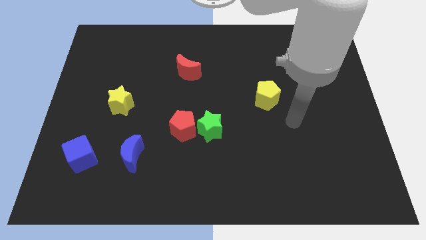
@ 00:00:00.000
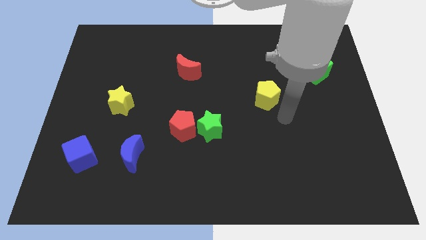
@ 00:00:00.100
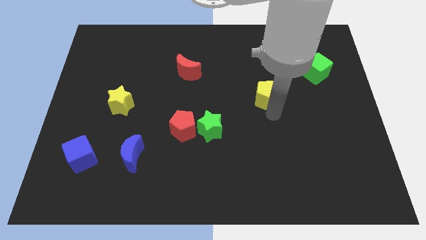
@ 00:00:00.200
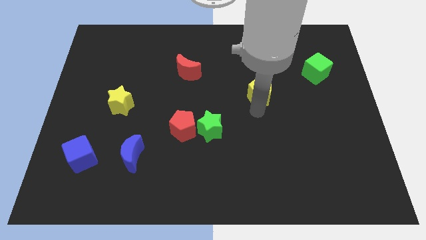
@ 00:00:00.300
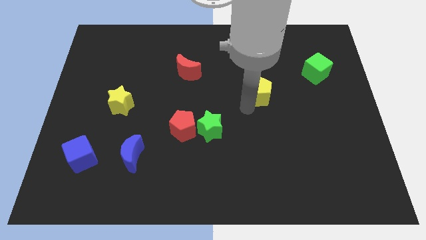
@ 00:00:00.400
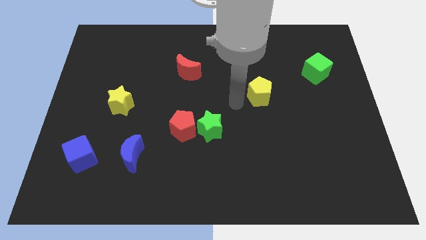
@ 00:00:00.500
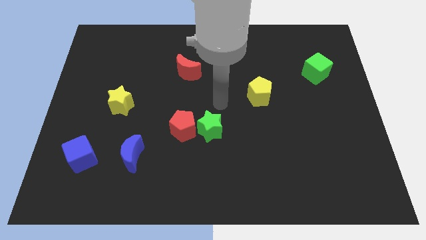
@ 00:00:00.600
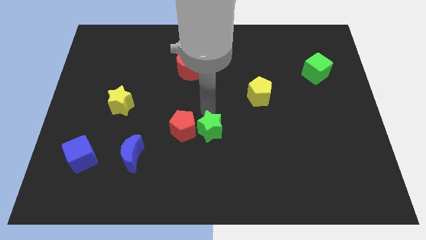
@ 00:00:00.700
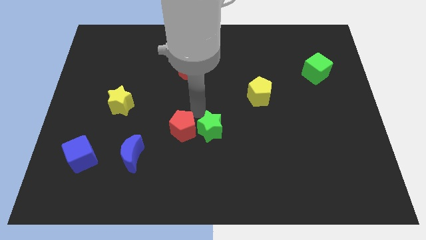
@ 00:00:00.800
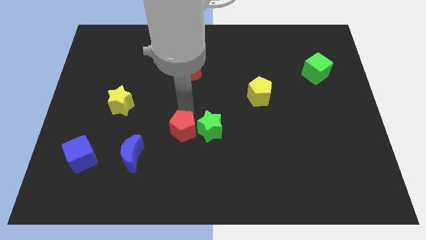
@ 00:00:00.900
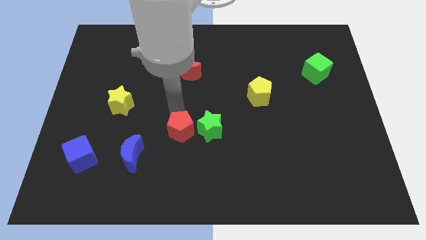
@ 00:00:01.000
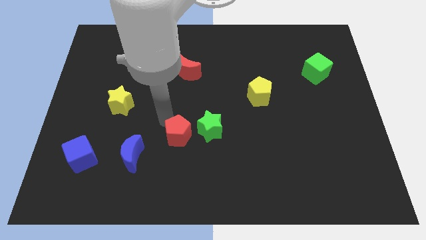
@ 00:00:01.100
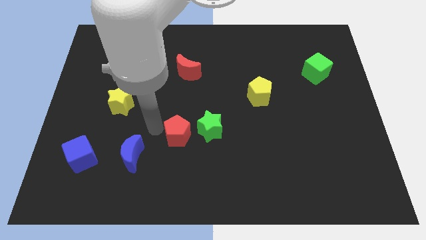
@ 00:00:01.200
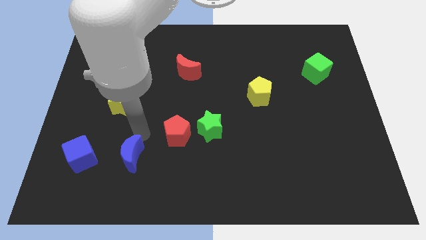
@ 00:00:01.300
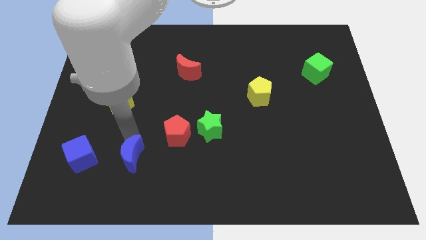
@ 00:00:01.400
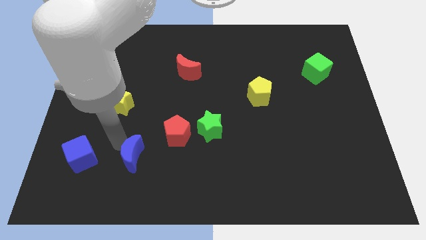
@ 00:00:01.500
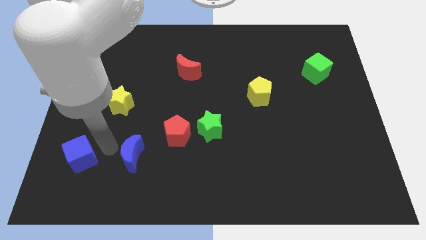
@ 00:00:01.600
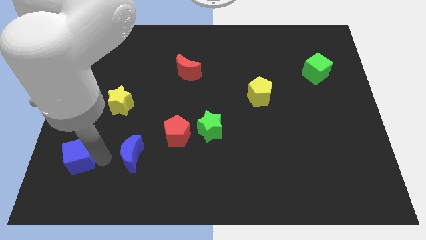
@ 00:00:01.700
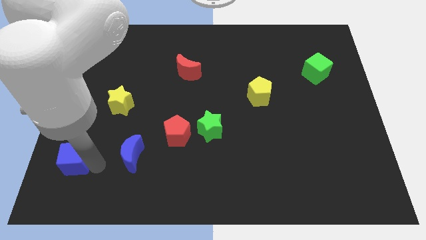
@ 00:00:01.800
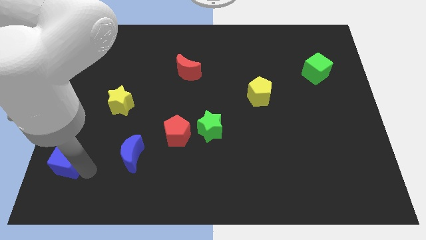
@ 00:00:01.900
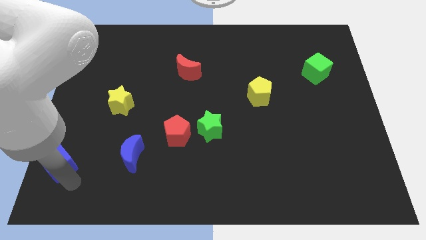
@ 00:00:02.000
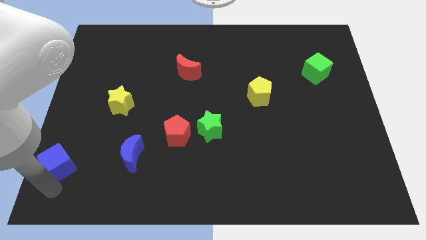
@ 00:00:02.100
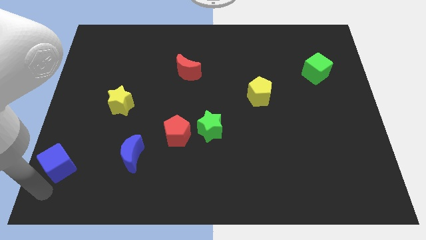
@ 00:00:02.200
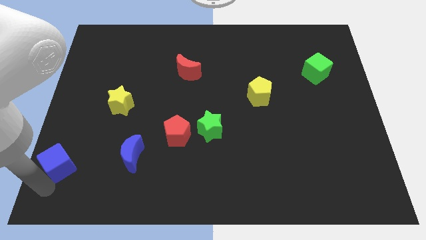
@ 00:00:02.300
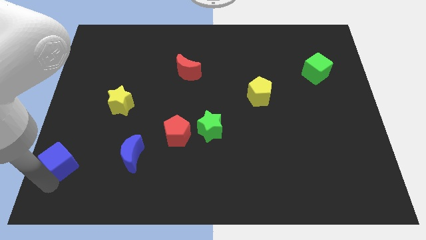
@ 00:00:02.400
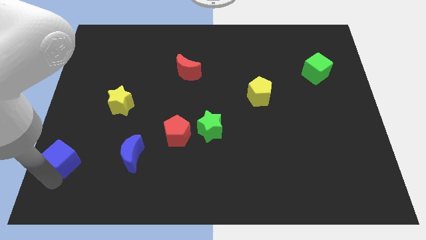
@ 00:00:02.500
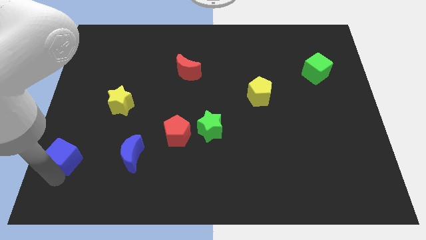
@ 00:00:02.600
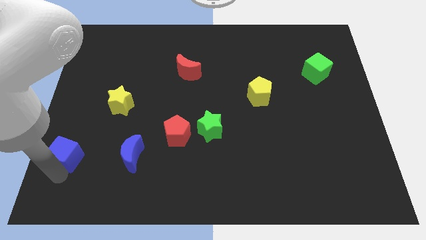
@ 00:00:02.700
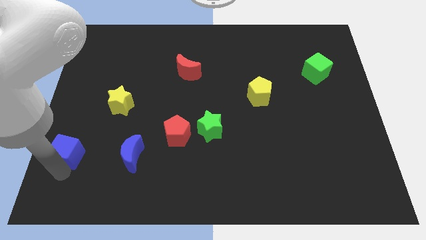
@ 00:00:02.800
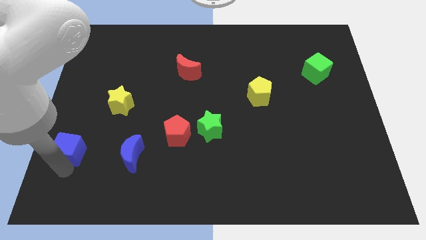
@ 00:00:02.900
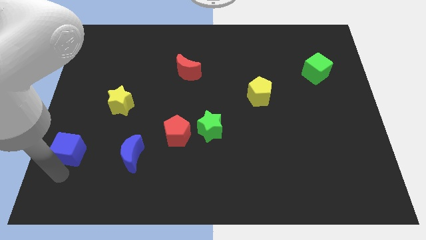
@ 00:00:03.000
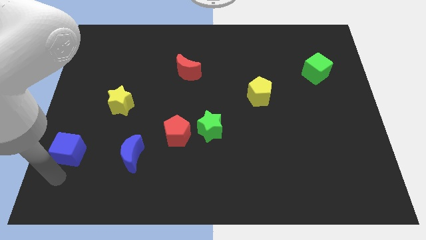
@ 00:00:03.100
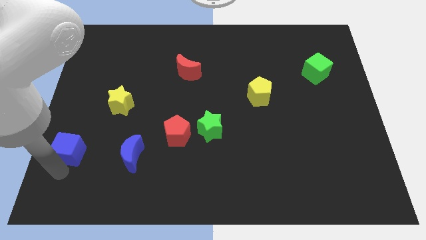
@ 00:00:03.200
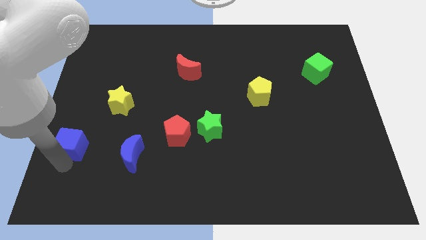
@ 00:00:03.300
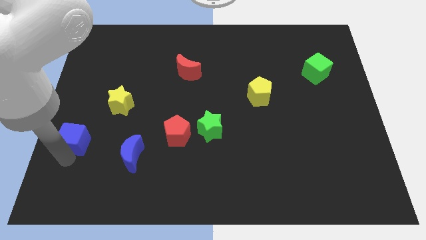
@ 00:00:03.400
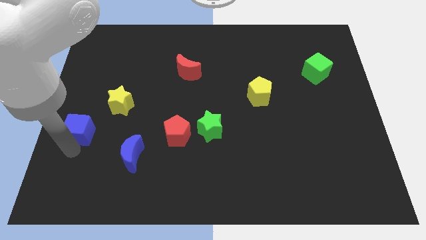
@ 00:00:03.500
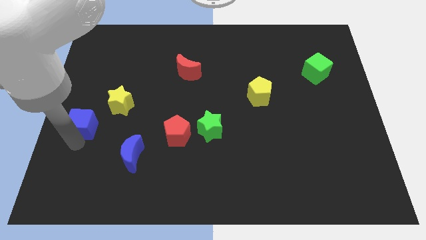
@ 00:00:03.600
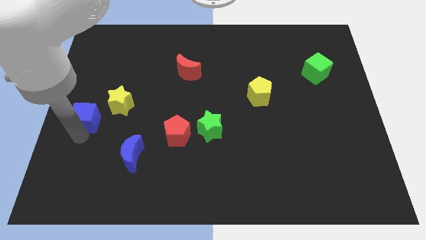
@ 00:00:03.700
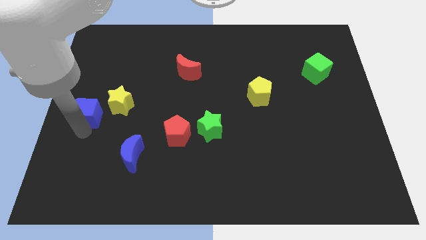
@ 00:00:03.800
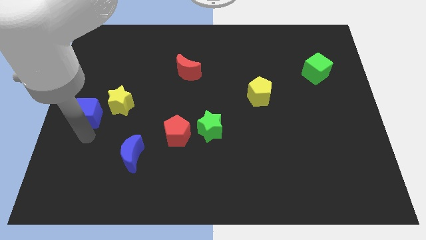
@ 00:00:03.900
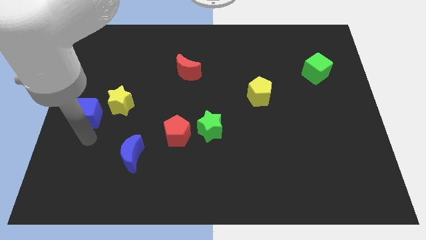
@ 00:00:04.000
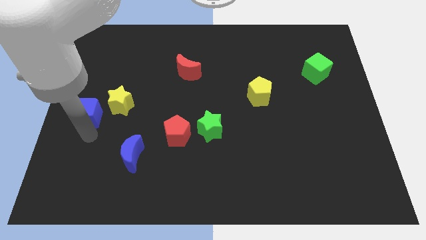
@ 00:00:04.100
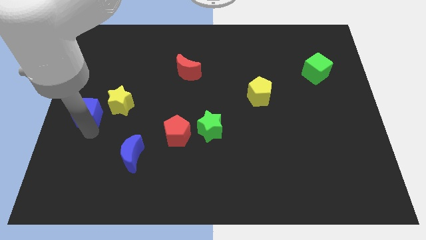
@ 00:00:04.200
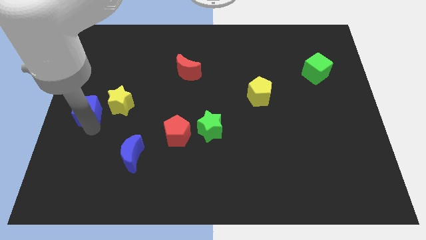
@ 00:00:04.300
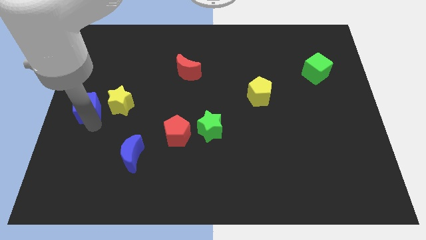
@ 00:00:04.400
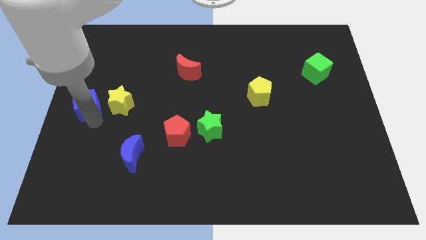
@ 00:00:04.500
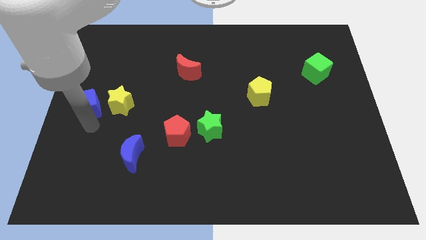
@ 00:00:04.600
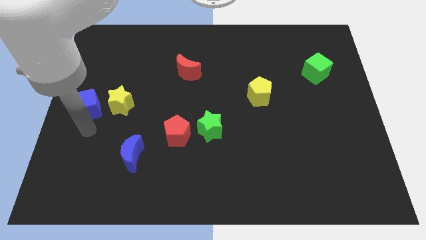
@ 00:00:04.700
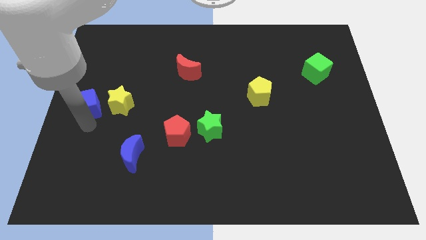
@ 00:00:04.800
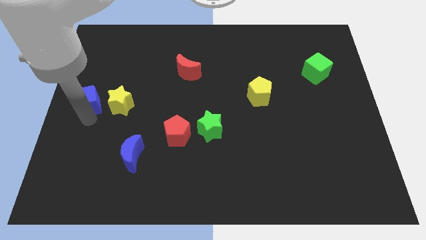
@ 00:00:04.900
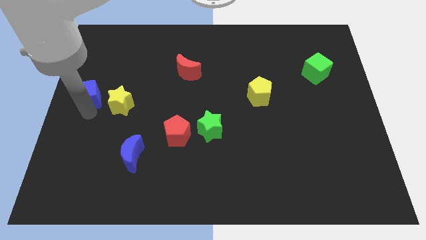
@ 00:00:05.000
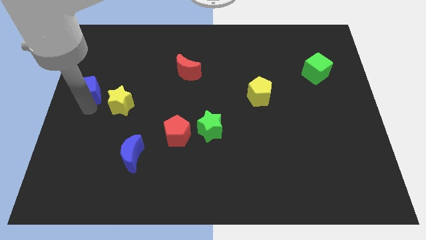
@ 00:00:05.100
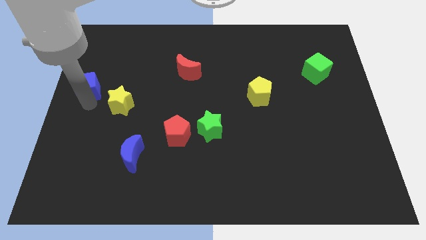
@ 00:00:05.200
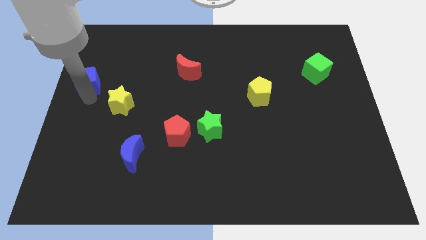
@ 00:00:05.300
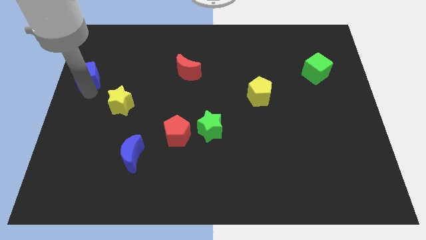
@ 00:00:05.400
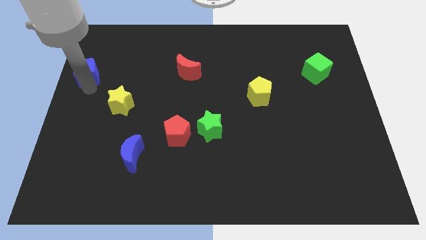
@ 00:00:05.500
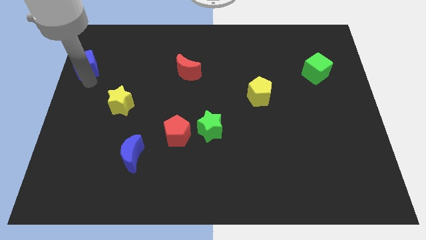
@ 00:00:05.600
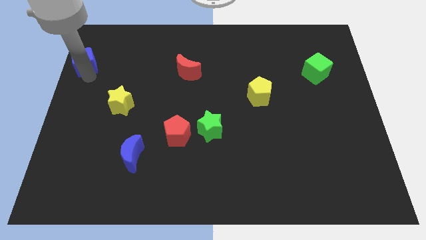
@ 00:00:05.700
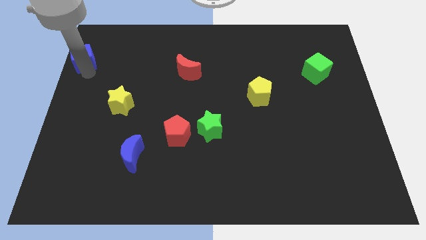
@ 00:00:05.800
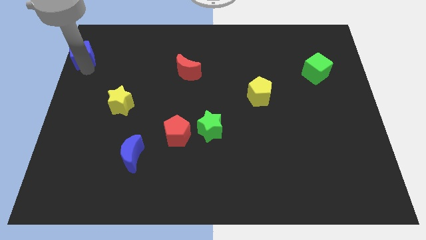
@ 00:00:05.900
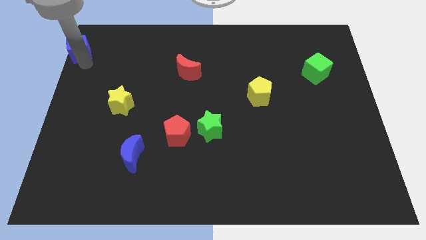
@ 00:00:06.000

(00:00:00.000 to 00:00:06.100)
put the blue cube to the top left corner

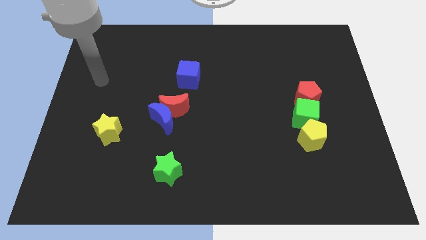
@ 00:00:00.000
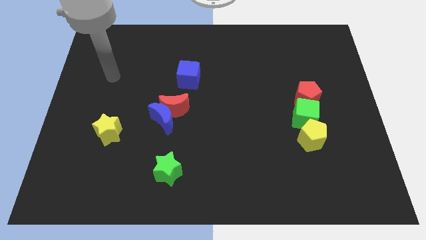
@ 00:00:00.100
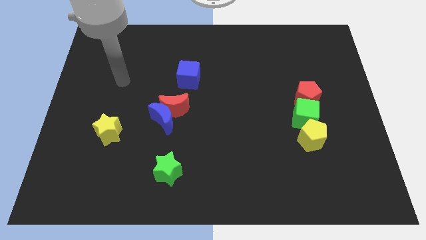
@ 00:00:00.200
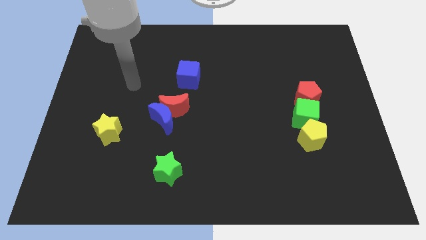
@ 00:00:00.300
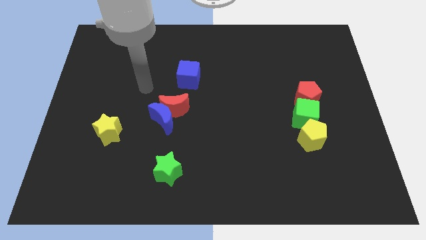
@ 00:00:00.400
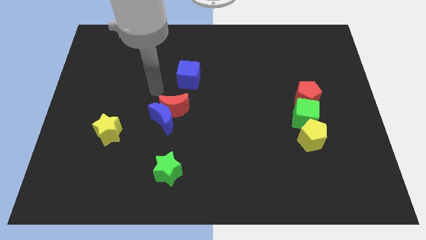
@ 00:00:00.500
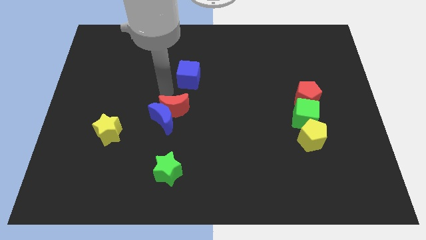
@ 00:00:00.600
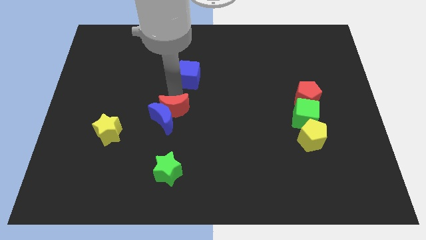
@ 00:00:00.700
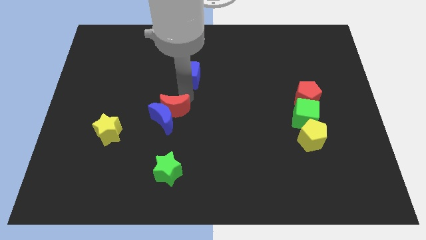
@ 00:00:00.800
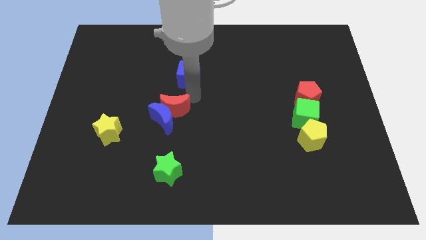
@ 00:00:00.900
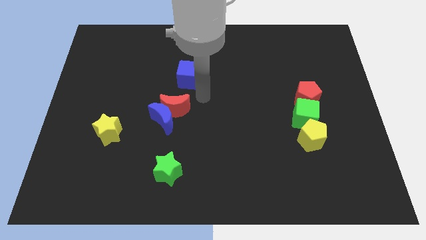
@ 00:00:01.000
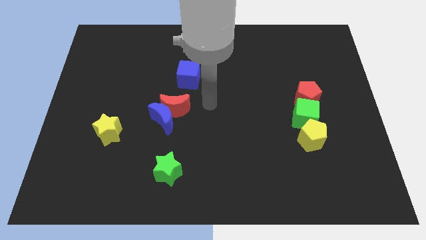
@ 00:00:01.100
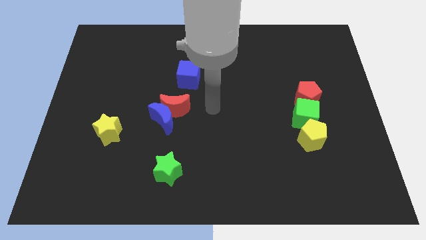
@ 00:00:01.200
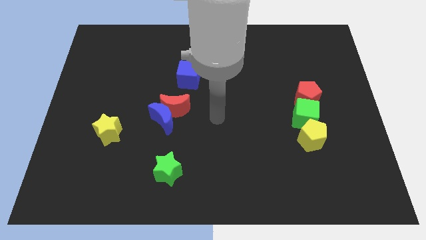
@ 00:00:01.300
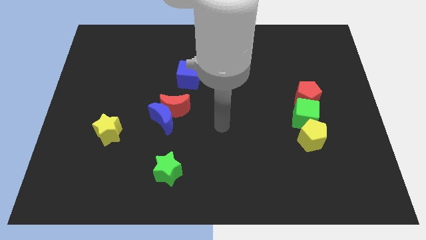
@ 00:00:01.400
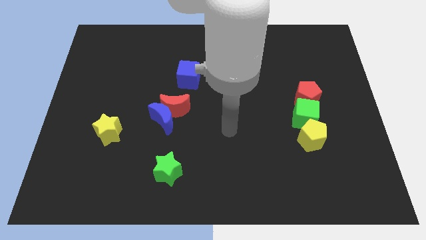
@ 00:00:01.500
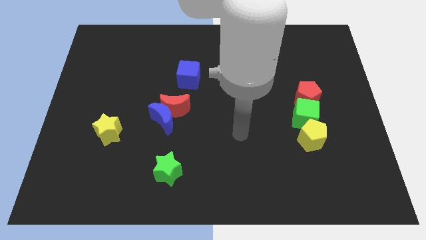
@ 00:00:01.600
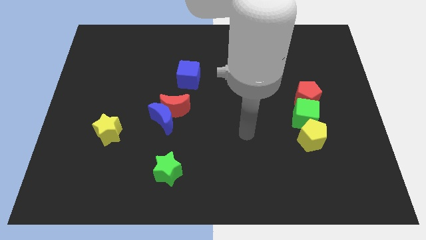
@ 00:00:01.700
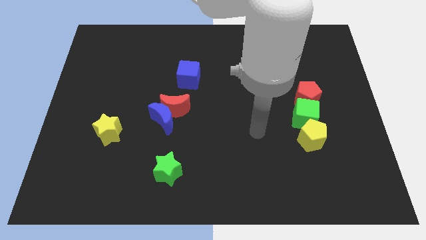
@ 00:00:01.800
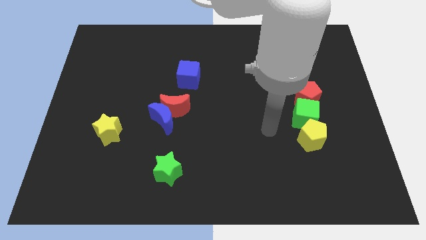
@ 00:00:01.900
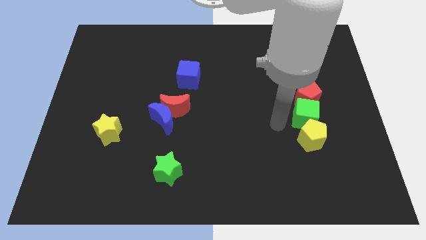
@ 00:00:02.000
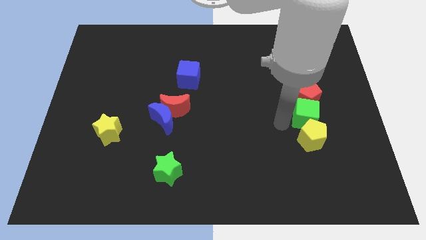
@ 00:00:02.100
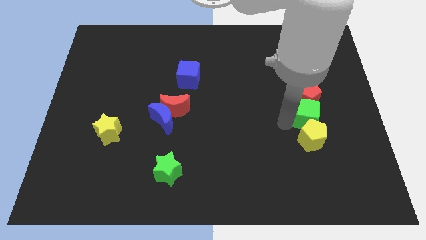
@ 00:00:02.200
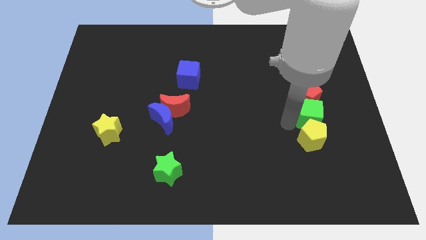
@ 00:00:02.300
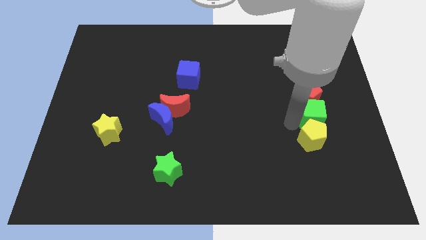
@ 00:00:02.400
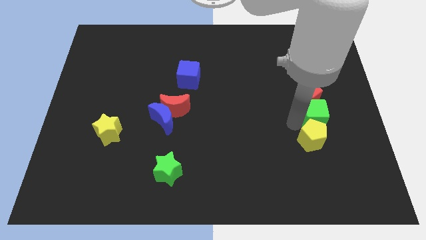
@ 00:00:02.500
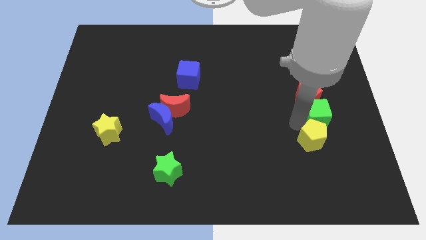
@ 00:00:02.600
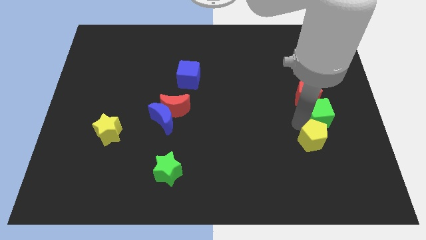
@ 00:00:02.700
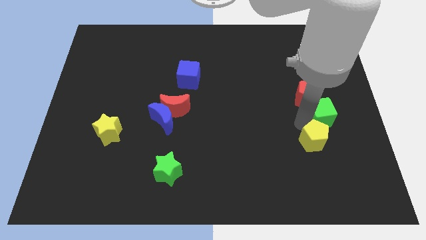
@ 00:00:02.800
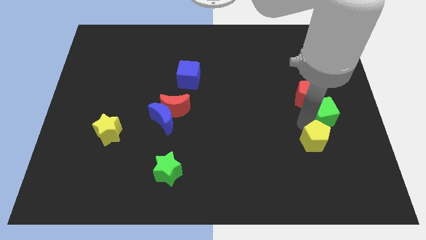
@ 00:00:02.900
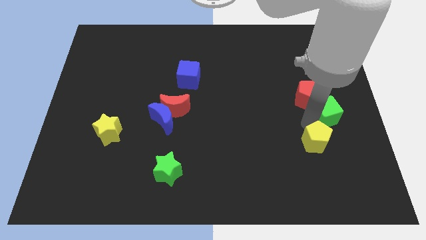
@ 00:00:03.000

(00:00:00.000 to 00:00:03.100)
move the green cube to the center right
